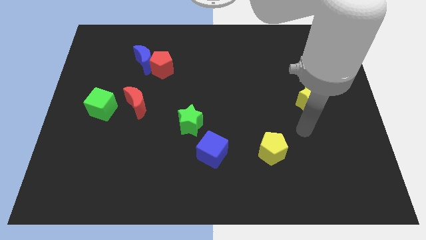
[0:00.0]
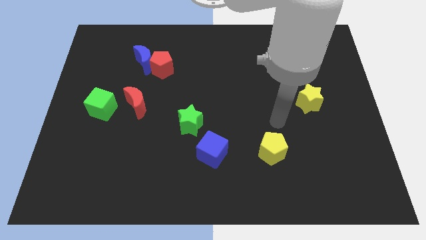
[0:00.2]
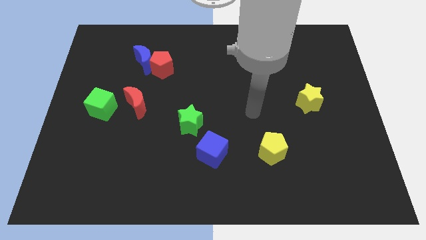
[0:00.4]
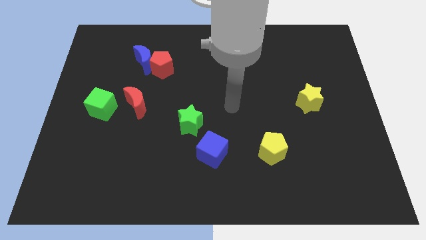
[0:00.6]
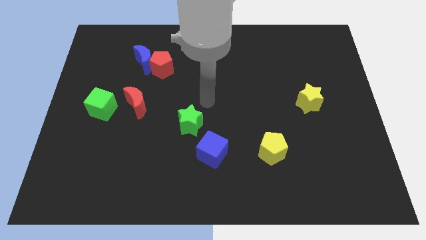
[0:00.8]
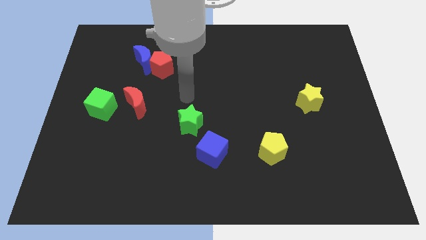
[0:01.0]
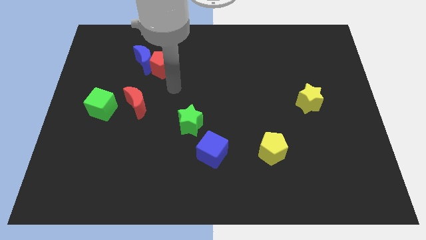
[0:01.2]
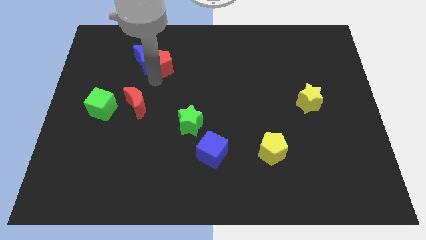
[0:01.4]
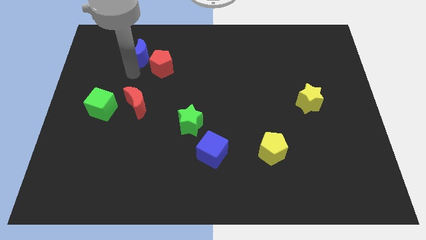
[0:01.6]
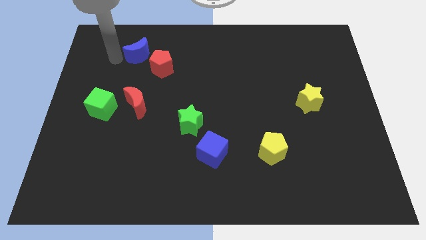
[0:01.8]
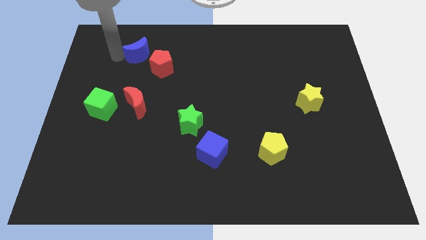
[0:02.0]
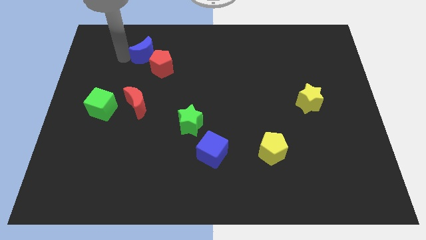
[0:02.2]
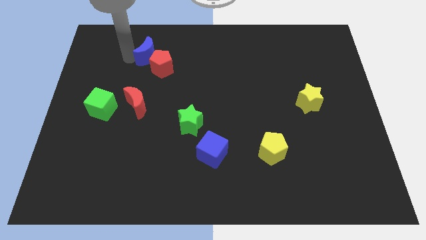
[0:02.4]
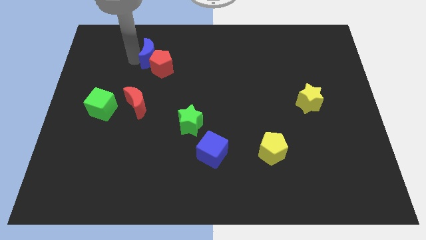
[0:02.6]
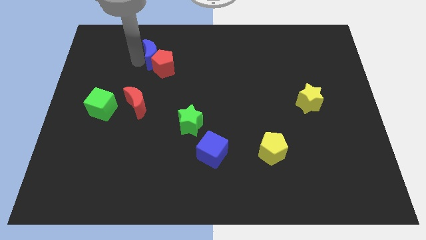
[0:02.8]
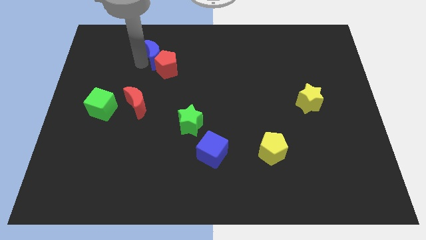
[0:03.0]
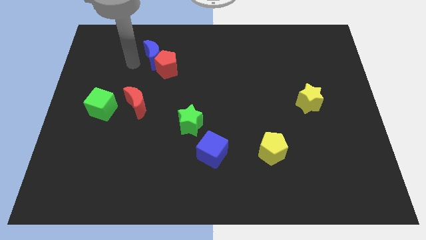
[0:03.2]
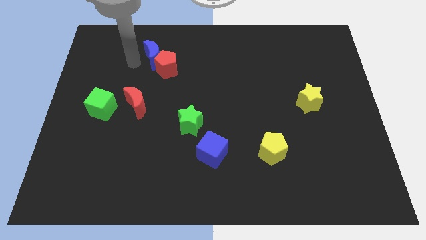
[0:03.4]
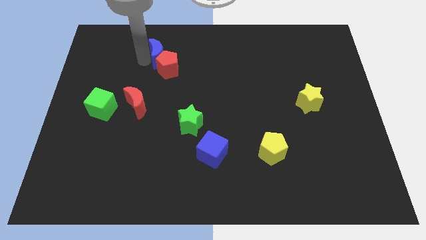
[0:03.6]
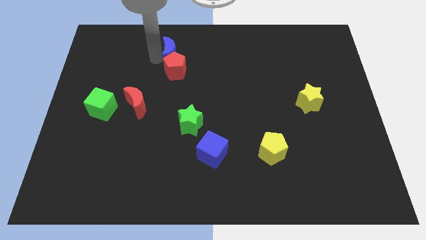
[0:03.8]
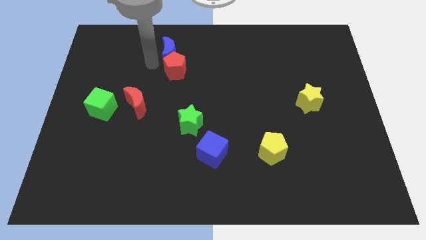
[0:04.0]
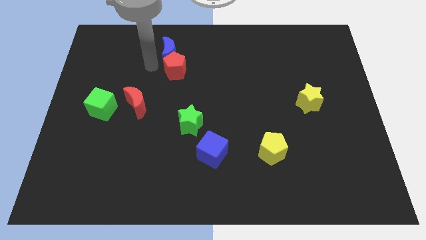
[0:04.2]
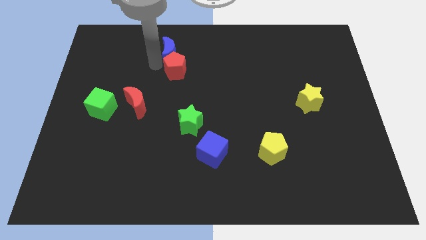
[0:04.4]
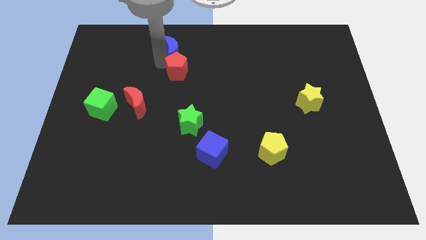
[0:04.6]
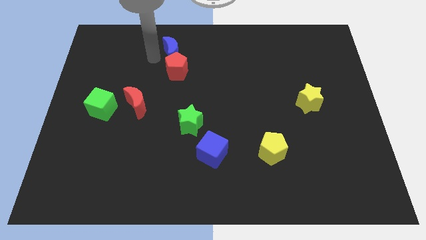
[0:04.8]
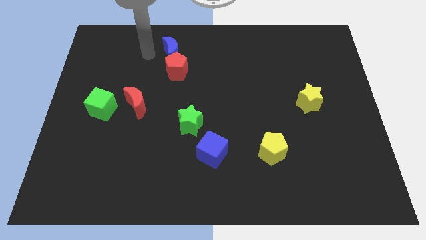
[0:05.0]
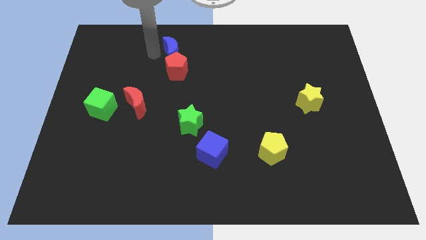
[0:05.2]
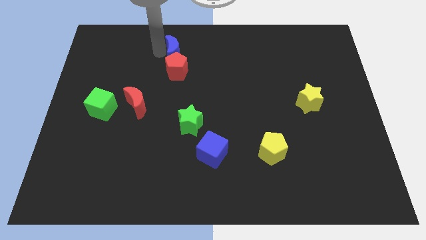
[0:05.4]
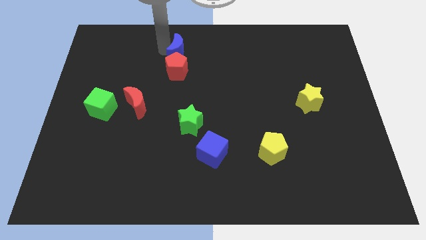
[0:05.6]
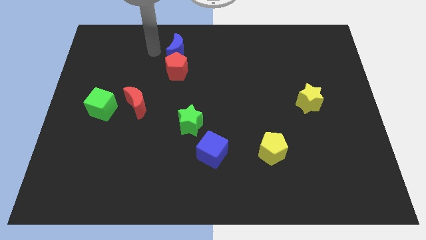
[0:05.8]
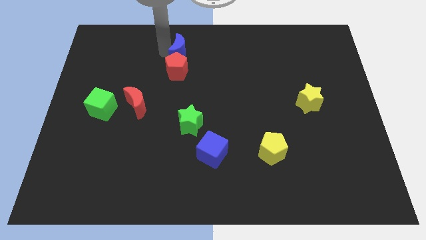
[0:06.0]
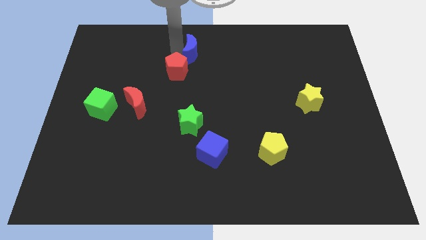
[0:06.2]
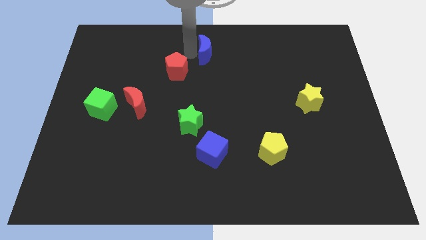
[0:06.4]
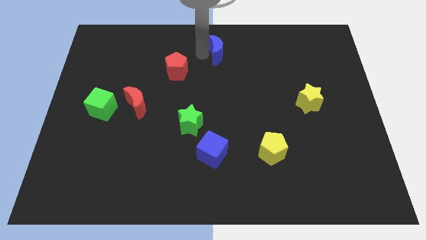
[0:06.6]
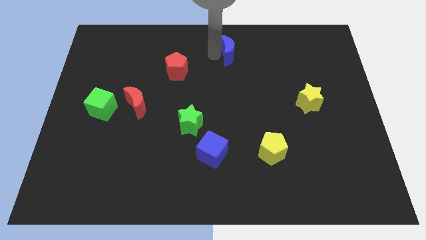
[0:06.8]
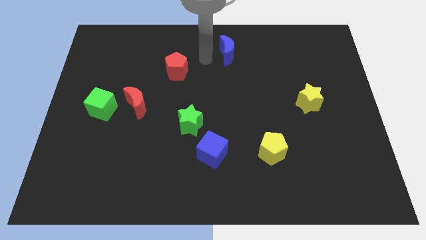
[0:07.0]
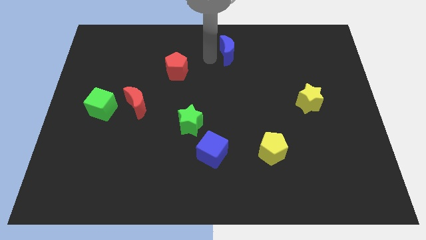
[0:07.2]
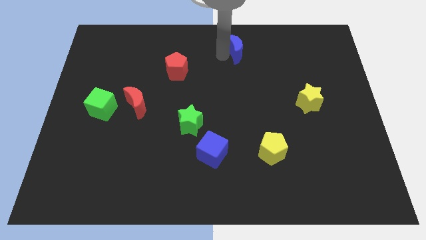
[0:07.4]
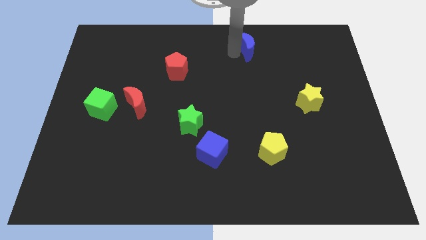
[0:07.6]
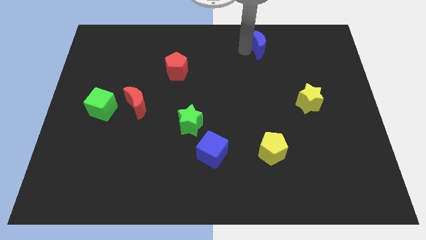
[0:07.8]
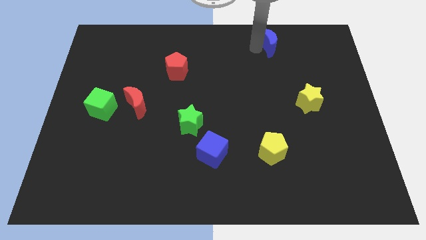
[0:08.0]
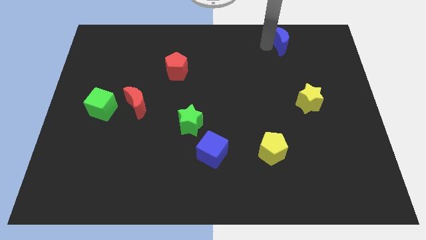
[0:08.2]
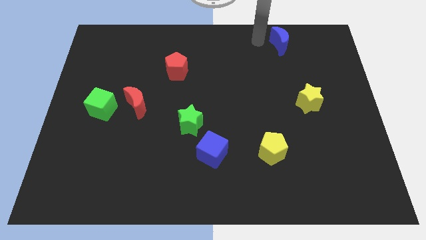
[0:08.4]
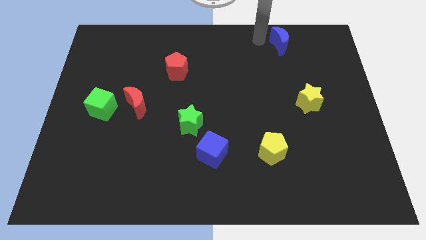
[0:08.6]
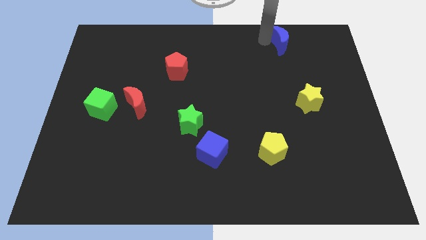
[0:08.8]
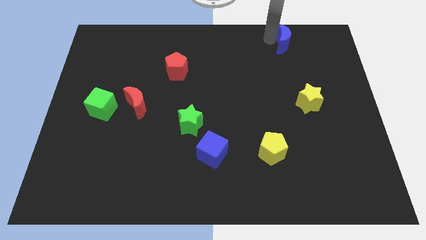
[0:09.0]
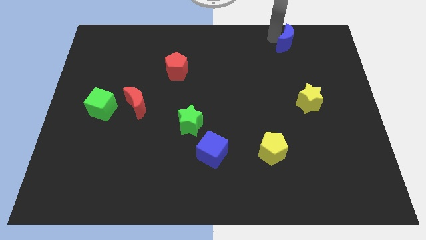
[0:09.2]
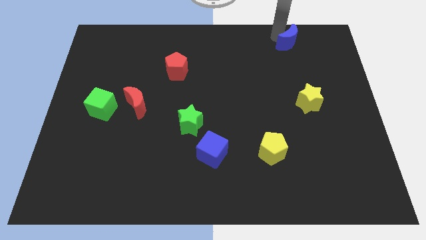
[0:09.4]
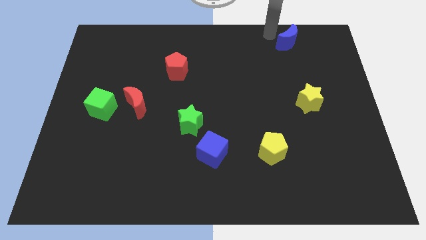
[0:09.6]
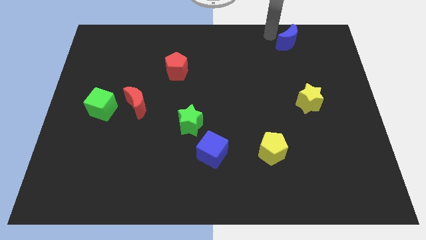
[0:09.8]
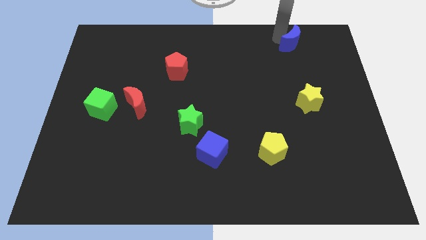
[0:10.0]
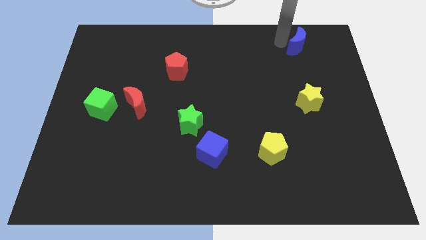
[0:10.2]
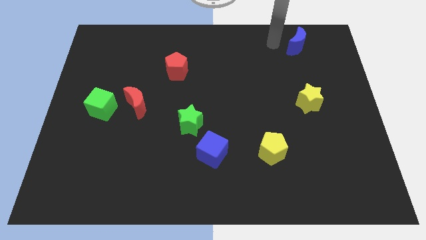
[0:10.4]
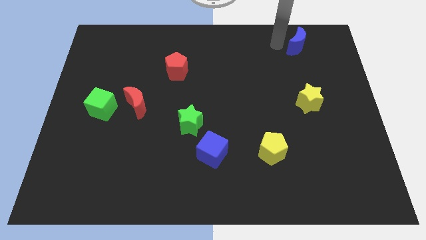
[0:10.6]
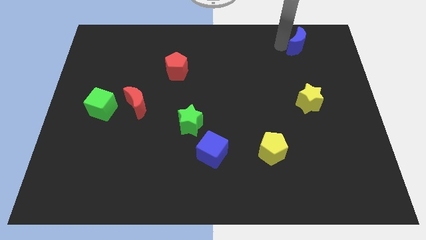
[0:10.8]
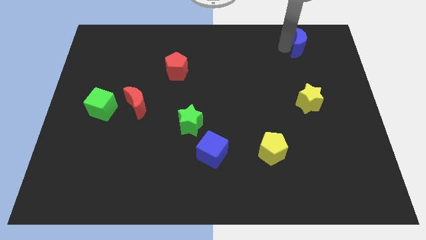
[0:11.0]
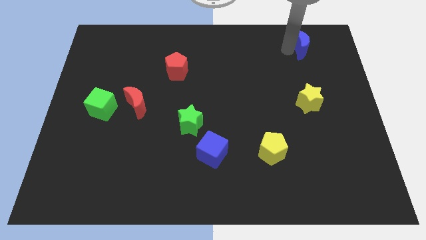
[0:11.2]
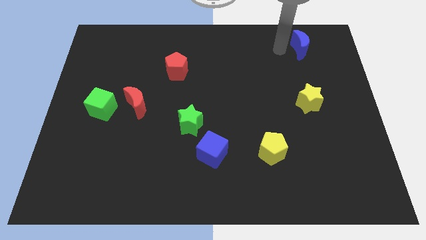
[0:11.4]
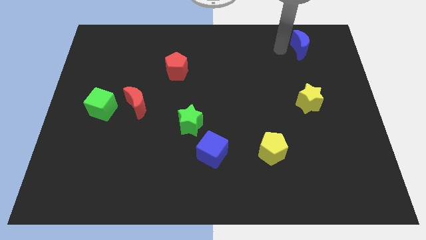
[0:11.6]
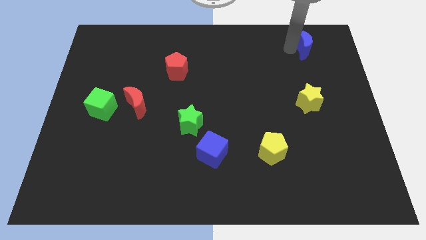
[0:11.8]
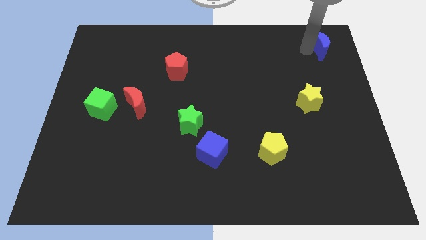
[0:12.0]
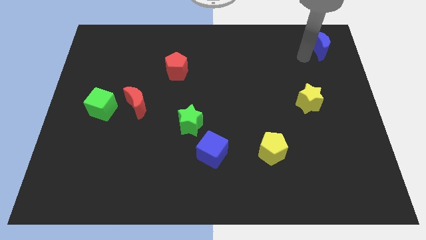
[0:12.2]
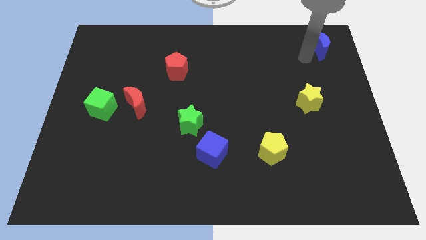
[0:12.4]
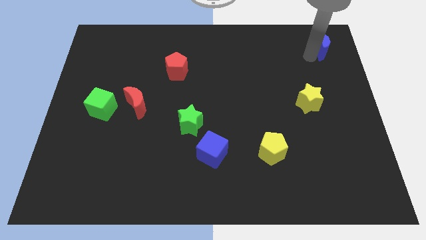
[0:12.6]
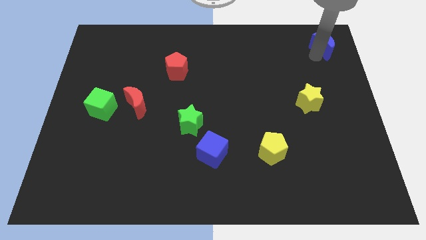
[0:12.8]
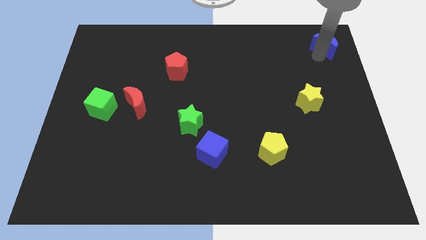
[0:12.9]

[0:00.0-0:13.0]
push the blue moon to the top right corner
